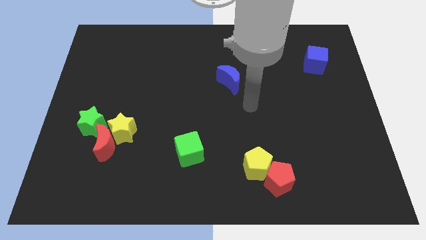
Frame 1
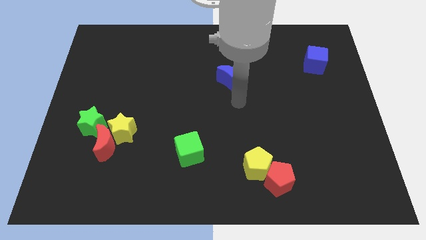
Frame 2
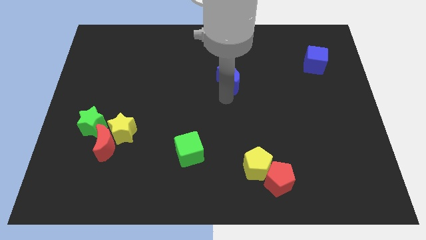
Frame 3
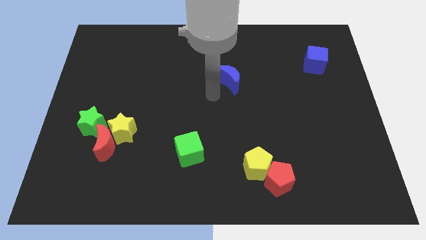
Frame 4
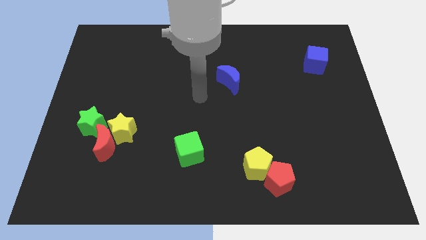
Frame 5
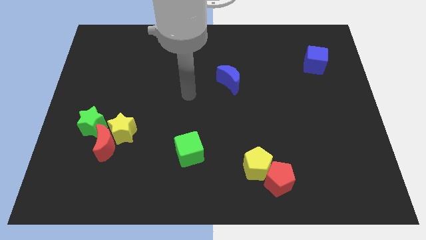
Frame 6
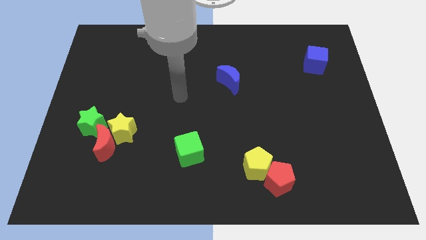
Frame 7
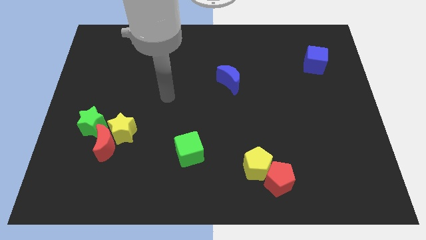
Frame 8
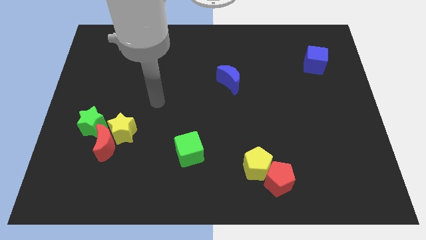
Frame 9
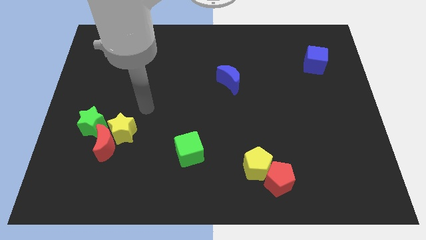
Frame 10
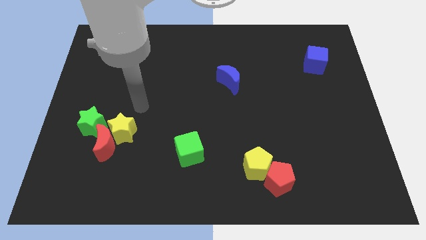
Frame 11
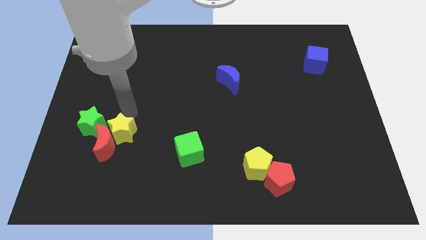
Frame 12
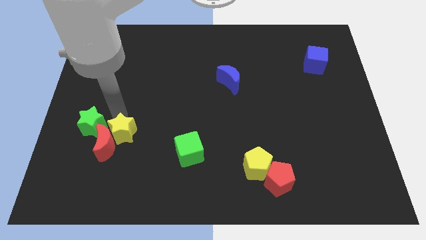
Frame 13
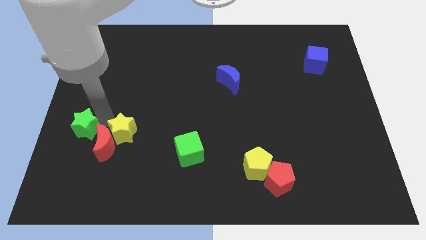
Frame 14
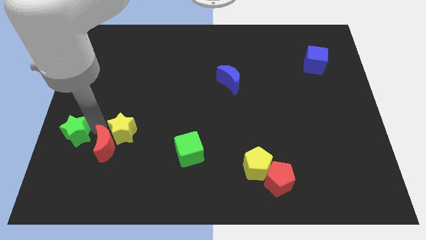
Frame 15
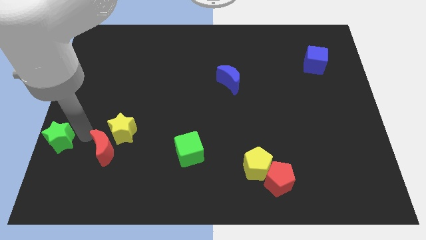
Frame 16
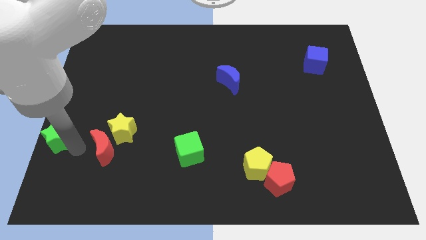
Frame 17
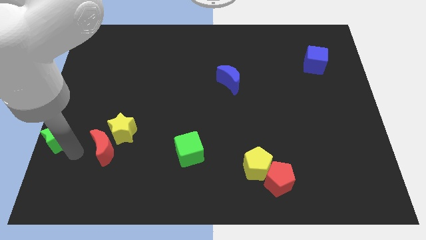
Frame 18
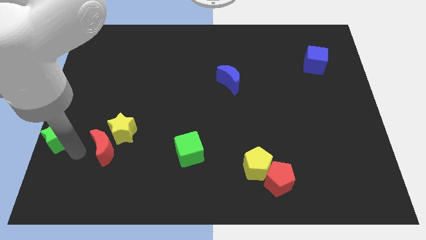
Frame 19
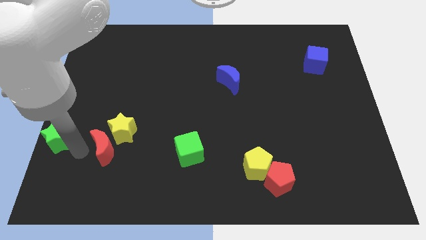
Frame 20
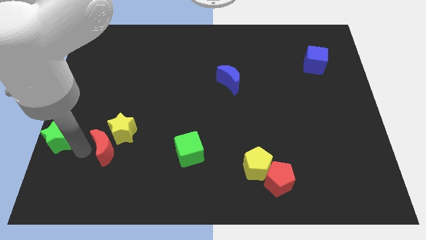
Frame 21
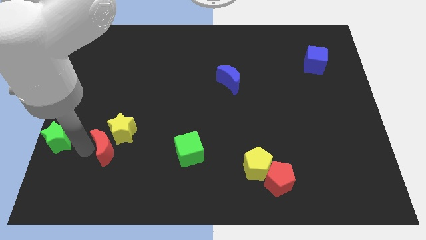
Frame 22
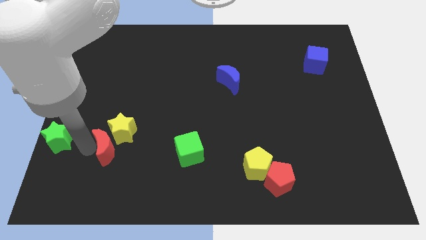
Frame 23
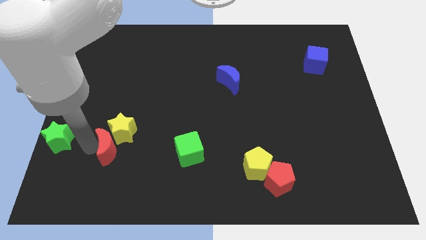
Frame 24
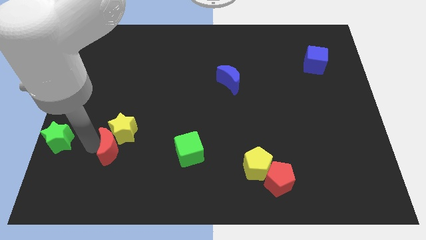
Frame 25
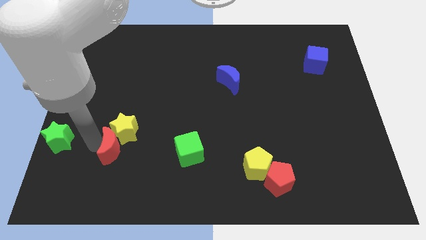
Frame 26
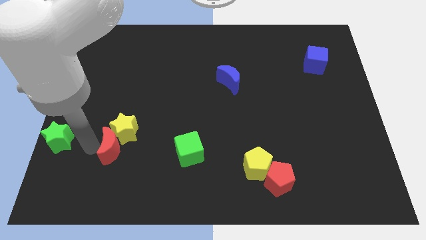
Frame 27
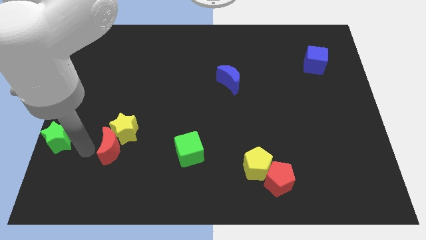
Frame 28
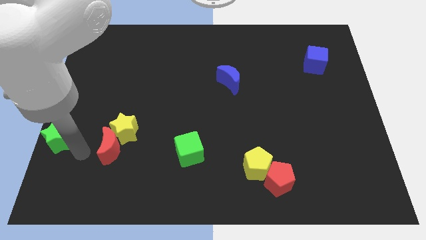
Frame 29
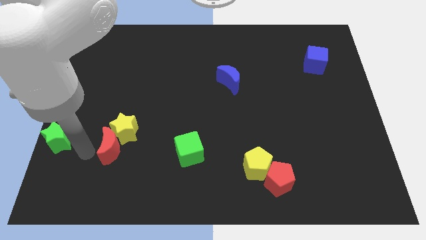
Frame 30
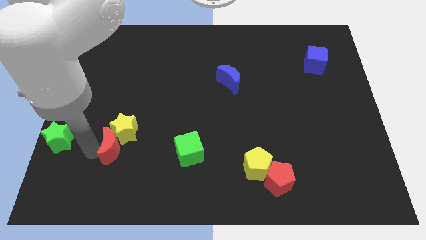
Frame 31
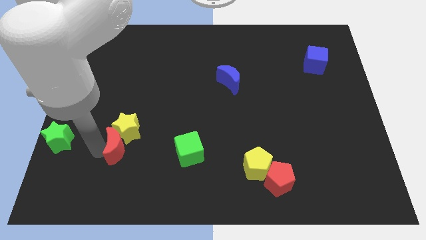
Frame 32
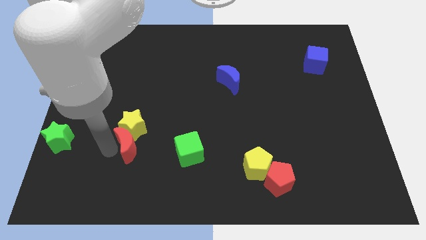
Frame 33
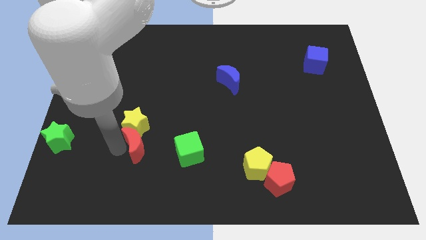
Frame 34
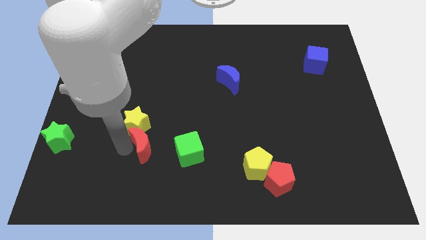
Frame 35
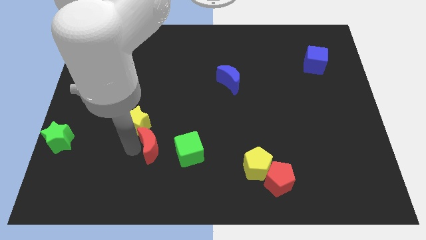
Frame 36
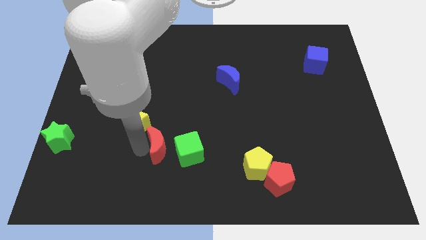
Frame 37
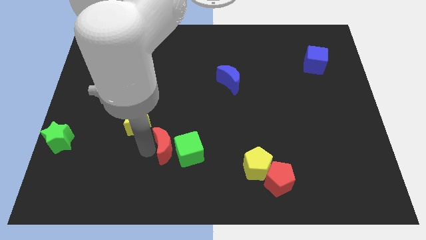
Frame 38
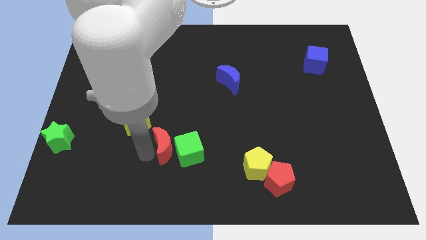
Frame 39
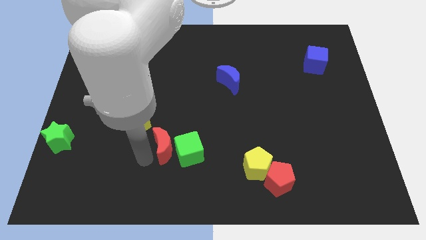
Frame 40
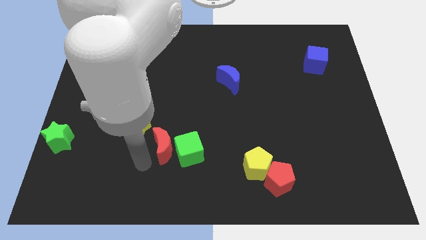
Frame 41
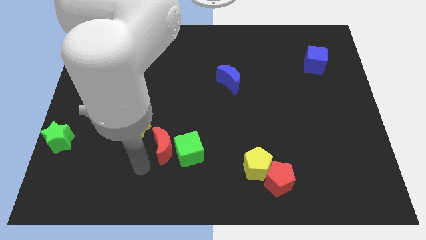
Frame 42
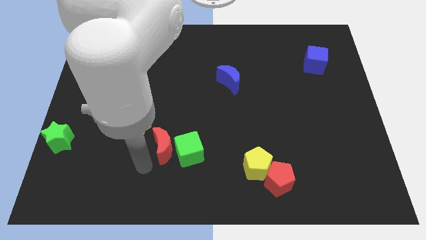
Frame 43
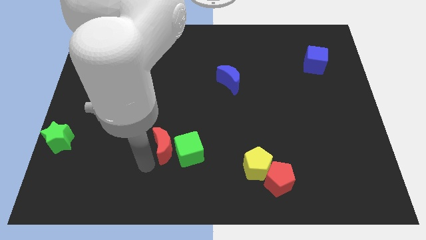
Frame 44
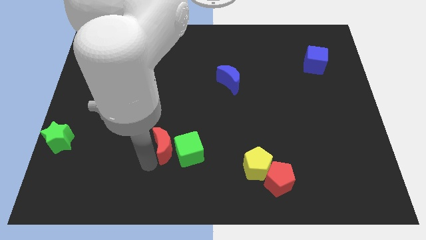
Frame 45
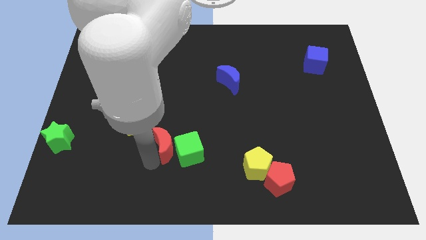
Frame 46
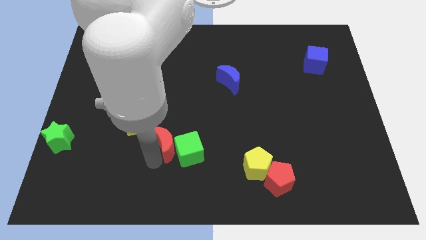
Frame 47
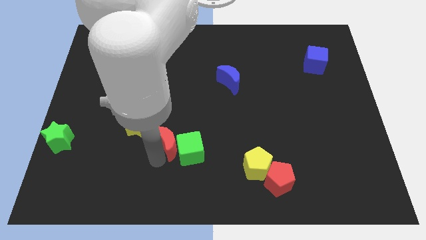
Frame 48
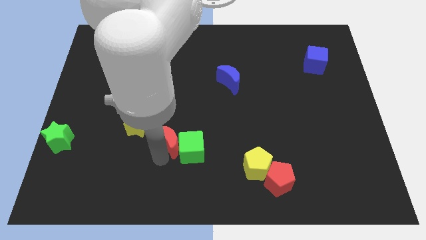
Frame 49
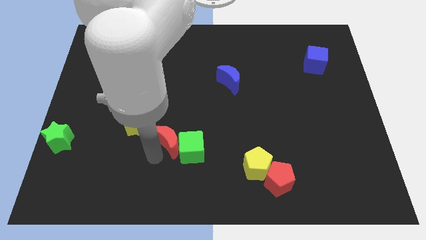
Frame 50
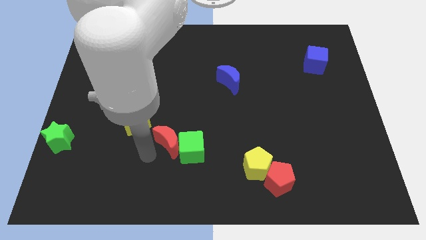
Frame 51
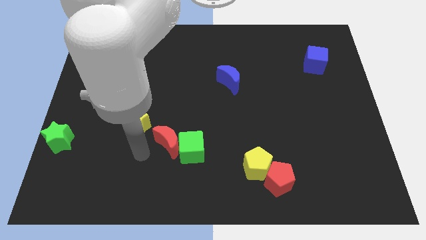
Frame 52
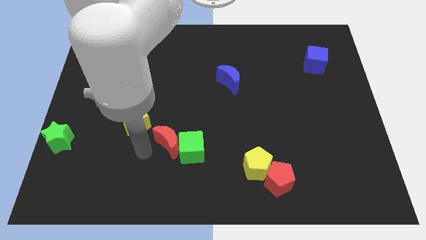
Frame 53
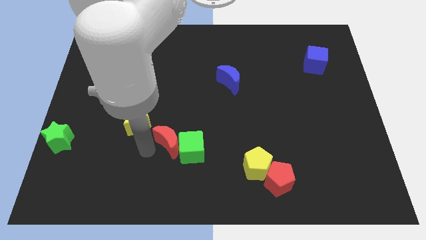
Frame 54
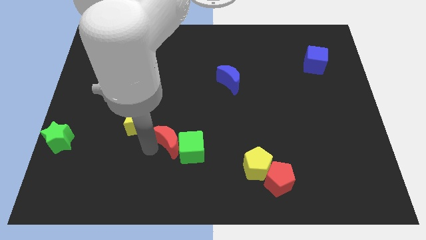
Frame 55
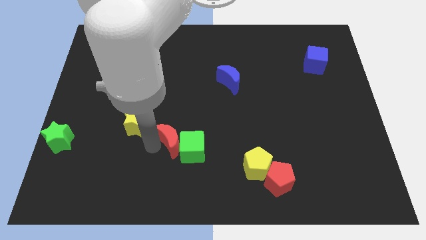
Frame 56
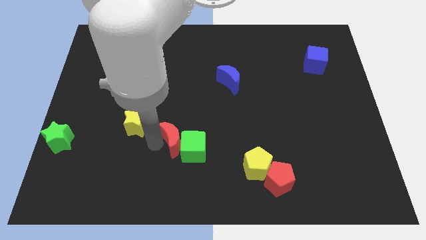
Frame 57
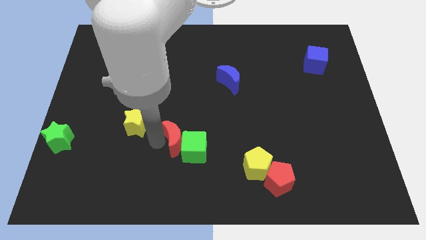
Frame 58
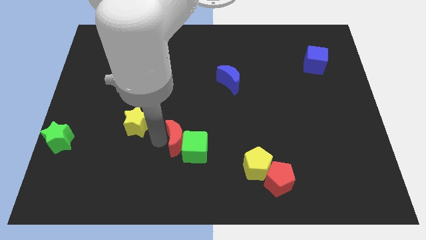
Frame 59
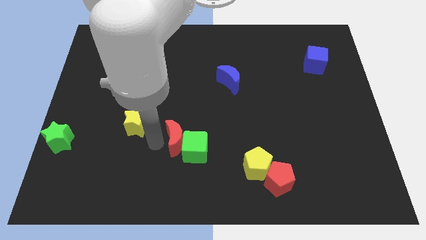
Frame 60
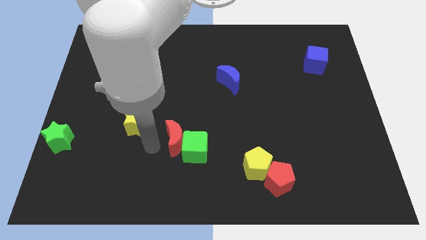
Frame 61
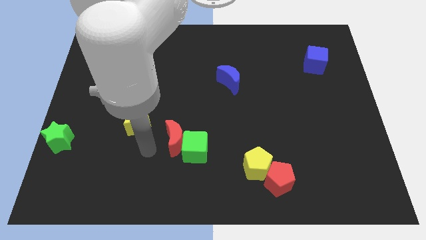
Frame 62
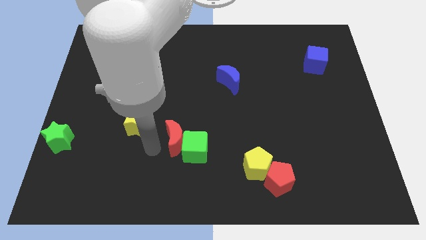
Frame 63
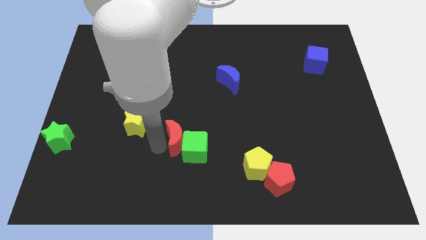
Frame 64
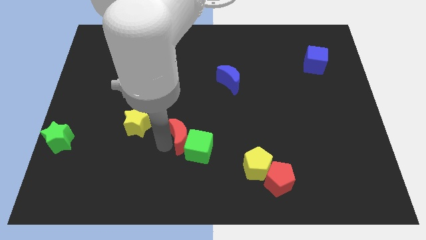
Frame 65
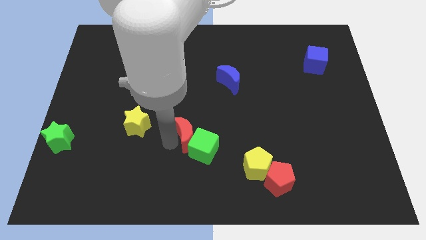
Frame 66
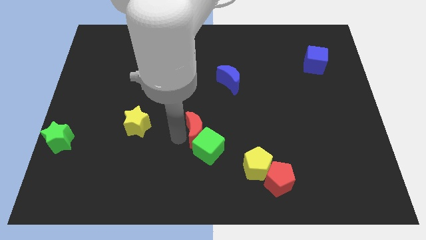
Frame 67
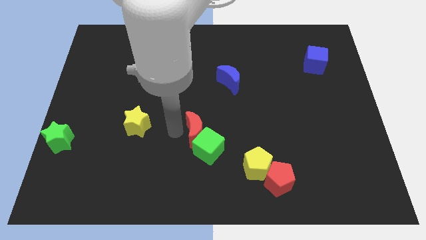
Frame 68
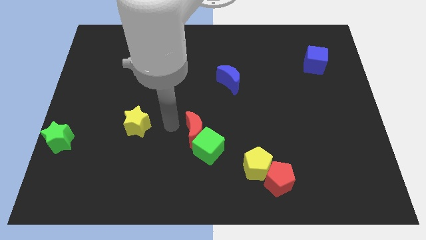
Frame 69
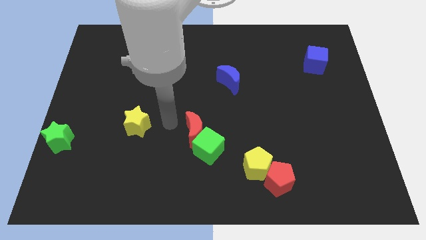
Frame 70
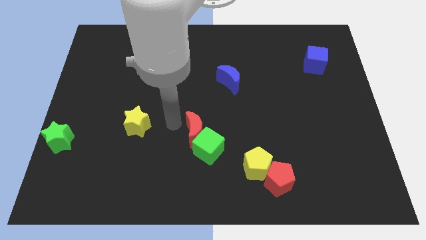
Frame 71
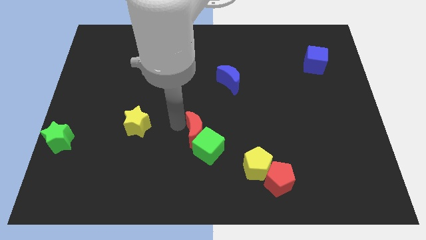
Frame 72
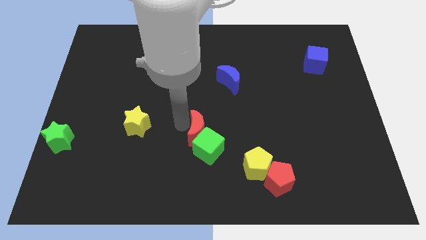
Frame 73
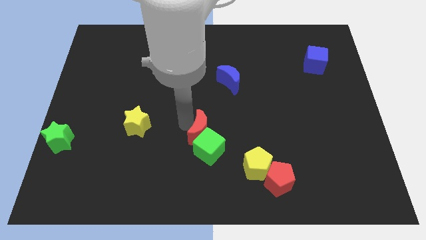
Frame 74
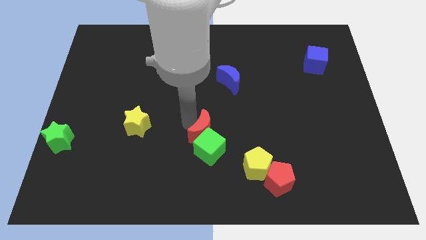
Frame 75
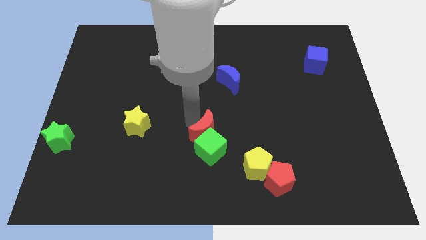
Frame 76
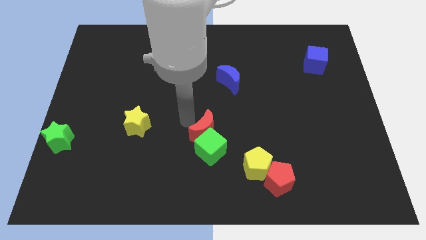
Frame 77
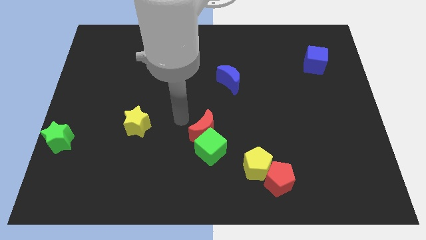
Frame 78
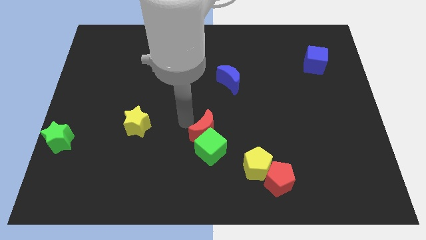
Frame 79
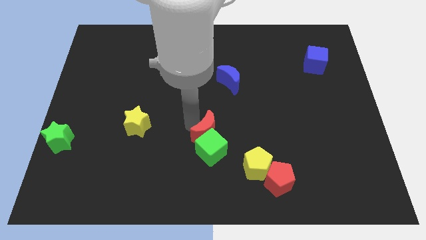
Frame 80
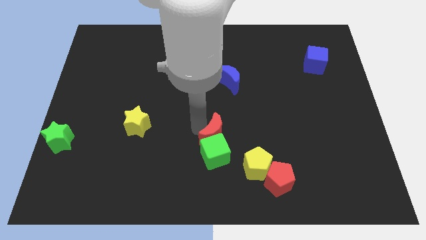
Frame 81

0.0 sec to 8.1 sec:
move the red moon to the top left of the yellow pentagon

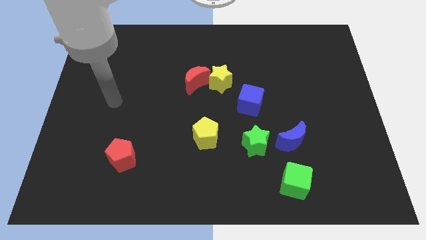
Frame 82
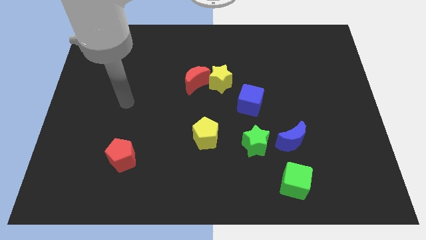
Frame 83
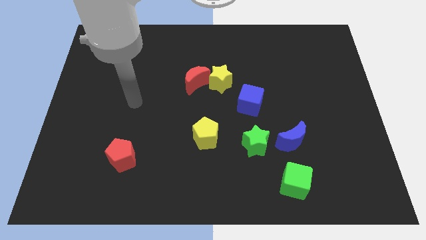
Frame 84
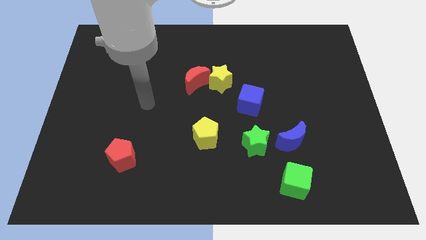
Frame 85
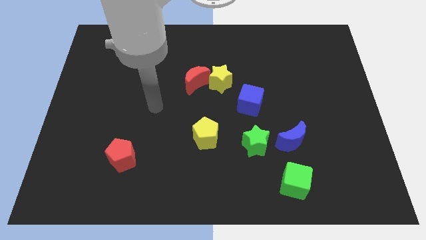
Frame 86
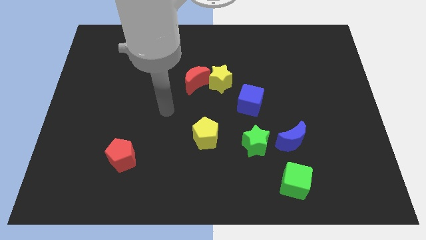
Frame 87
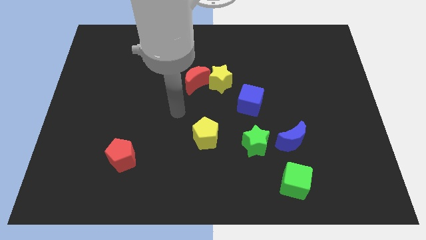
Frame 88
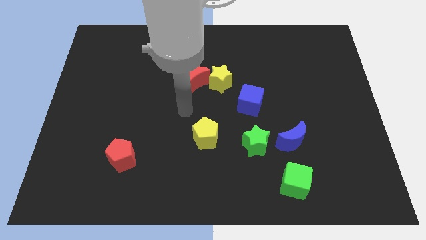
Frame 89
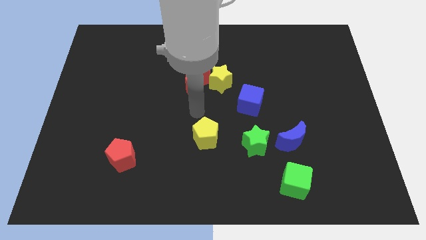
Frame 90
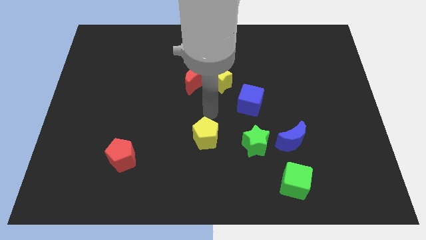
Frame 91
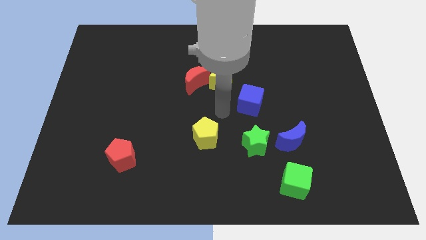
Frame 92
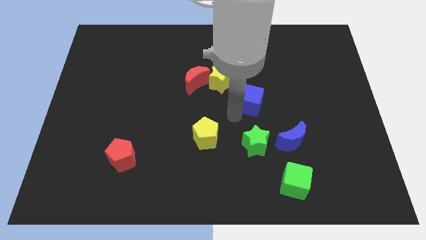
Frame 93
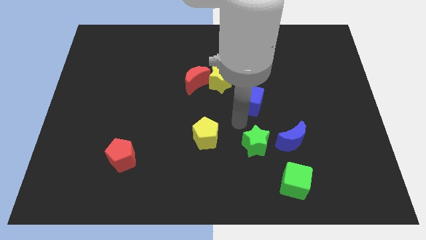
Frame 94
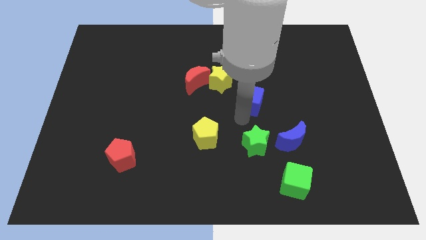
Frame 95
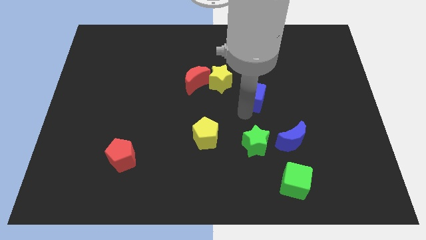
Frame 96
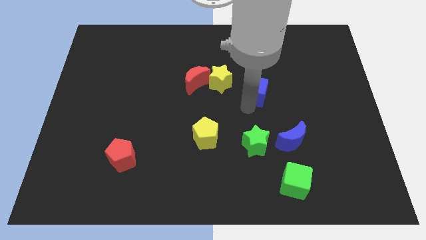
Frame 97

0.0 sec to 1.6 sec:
slide the blue cube to the right side of the yellow star
